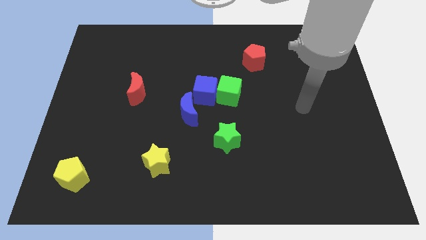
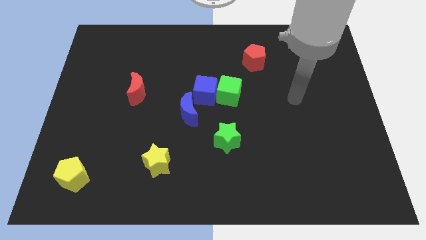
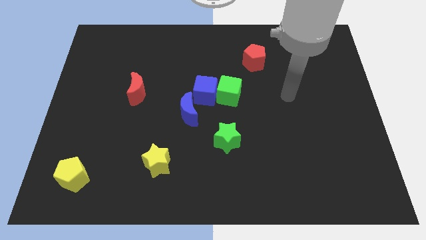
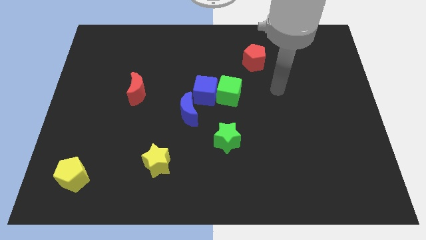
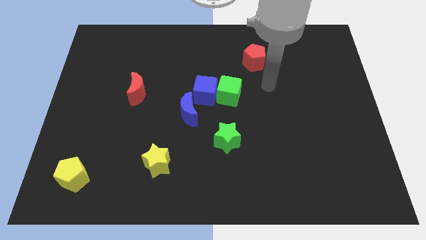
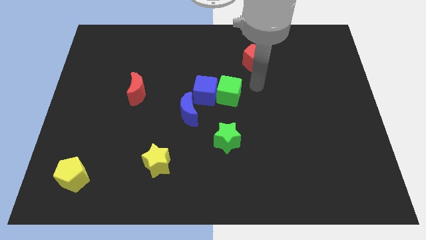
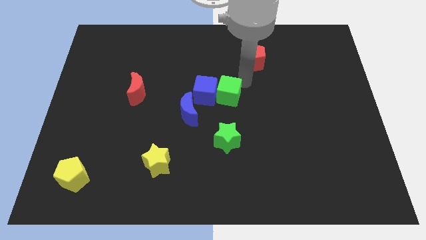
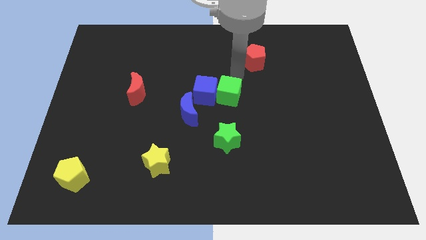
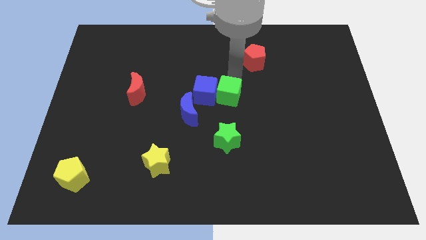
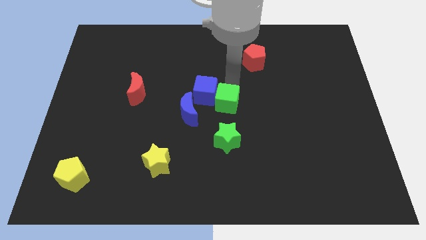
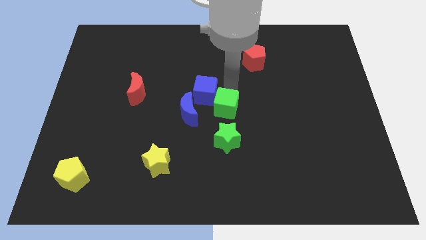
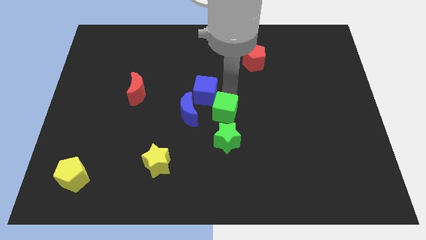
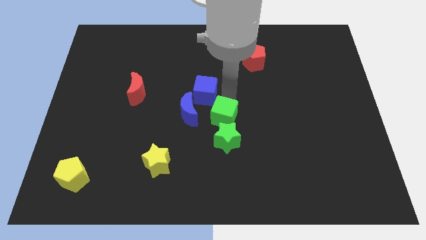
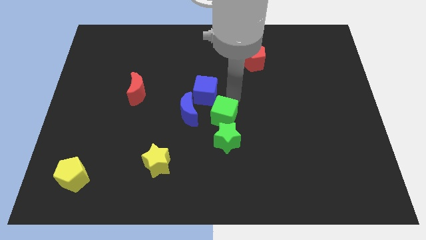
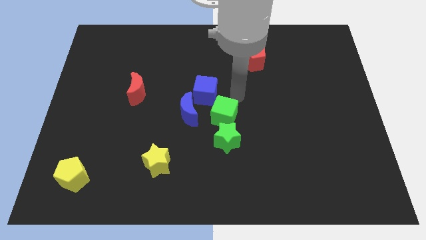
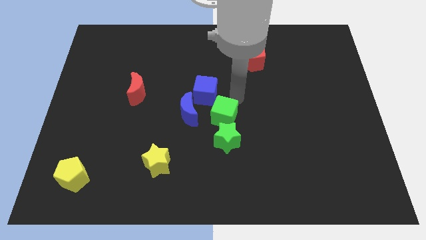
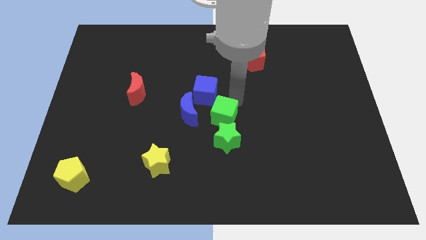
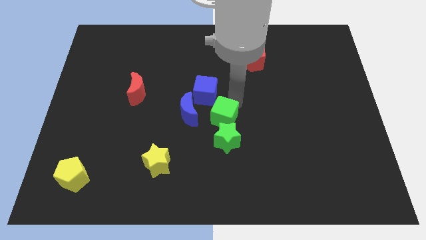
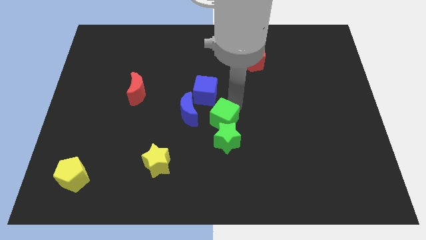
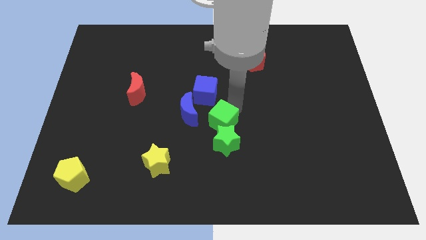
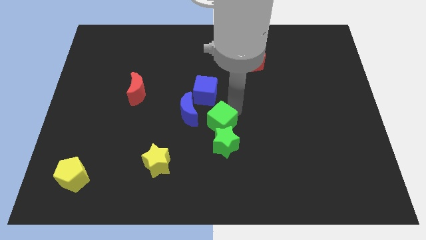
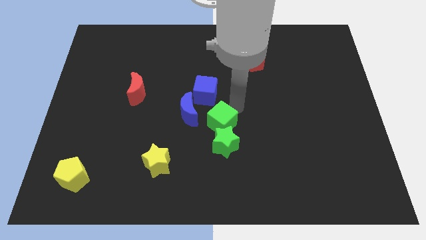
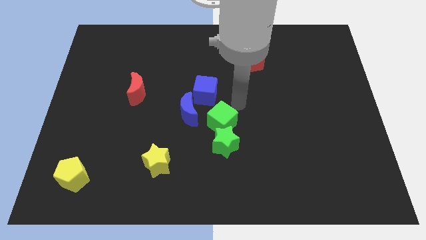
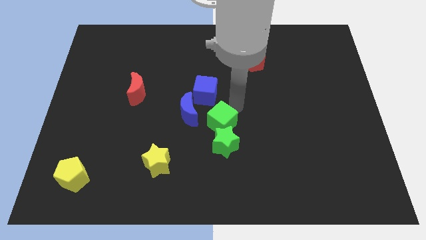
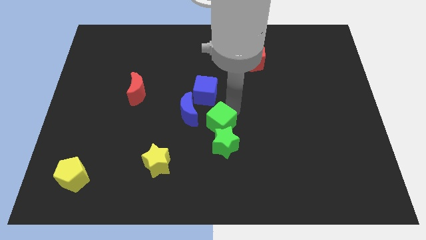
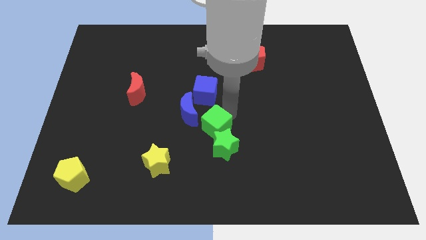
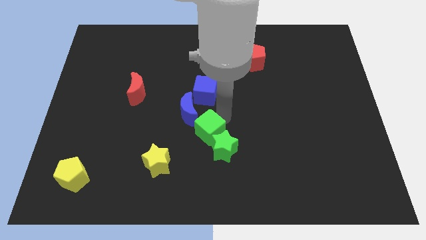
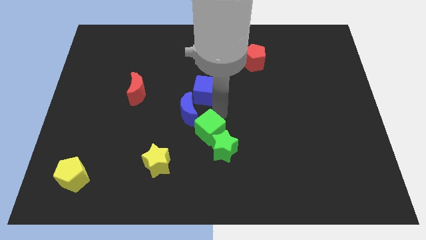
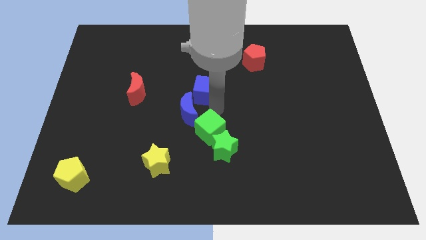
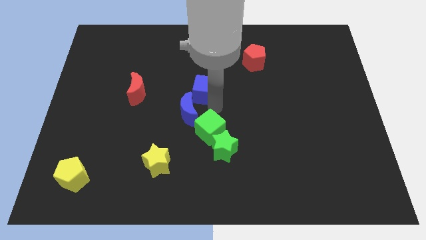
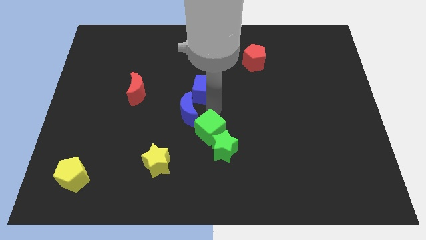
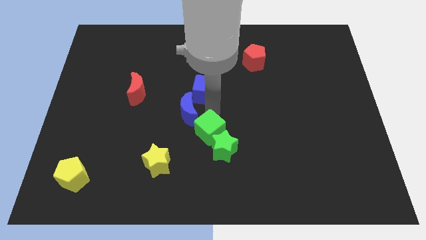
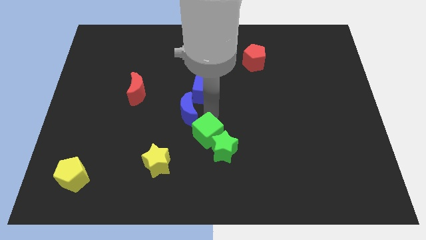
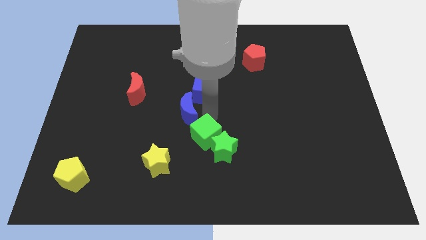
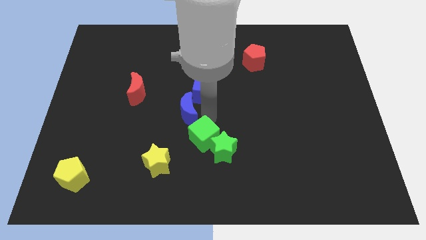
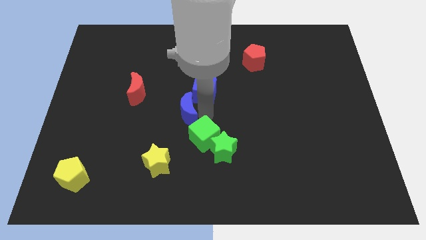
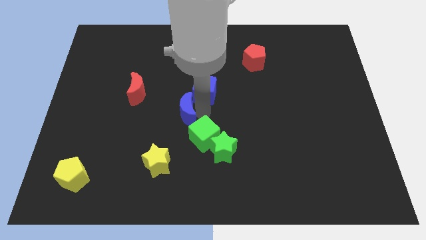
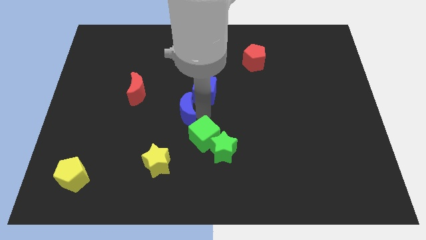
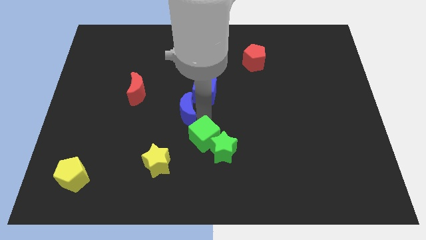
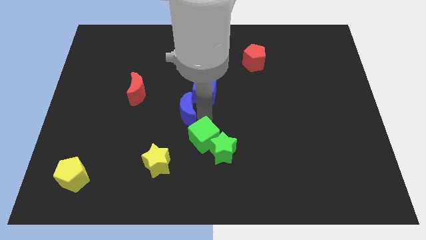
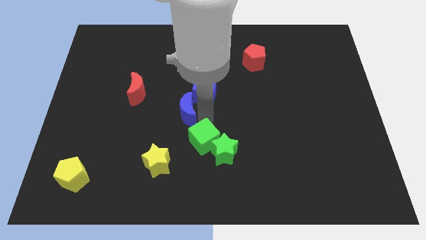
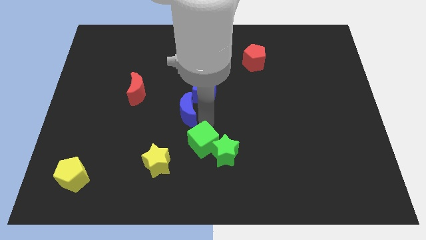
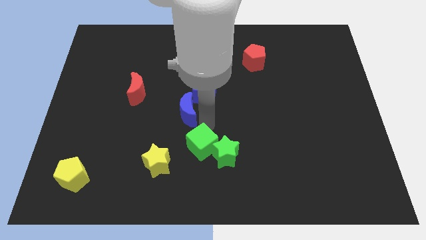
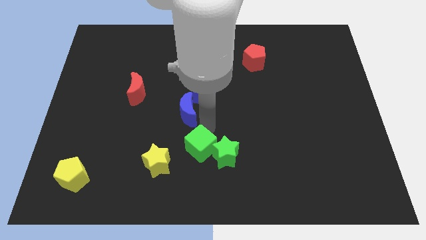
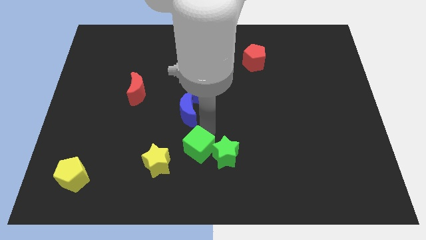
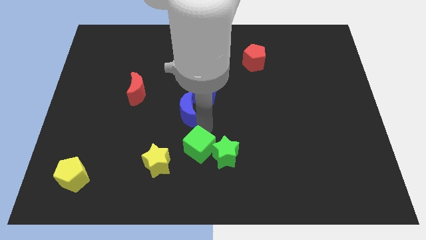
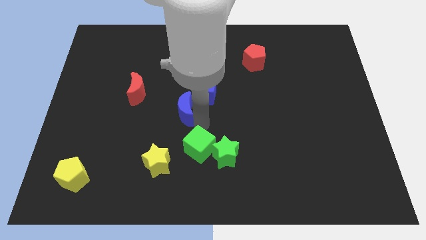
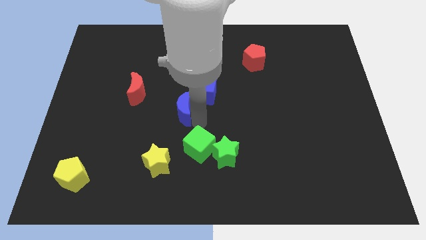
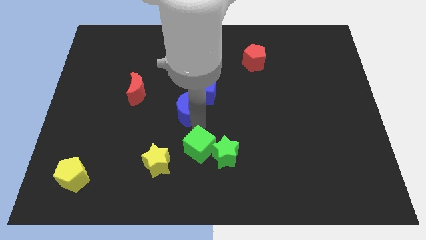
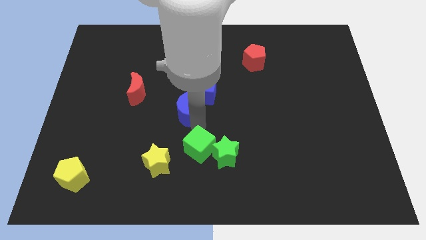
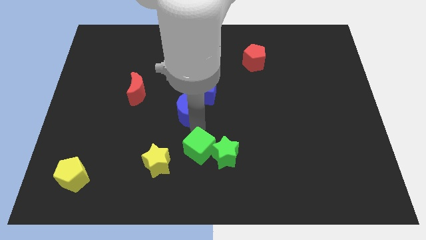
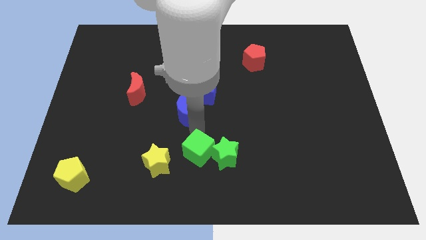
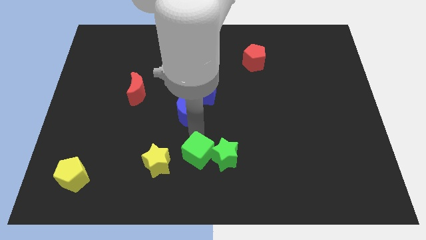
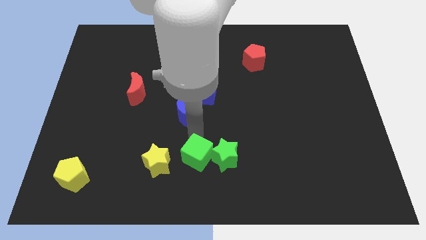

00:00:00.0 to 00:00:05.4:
slide the green cube to the bottom
